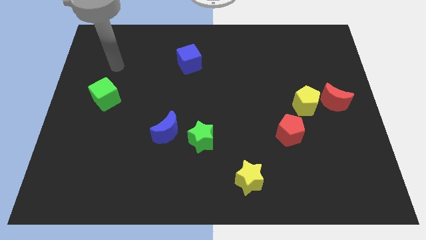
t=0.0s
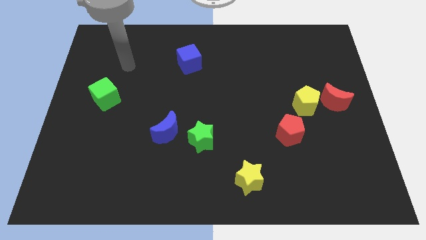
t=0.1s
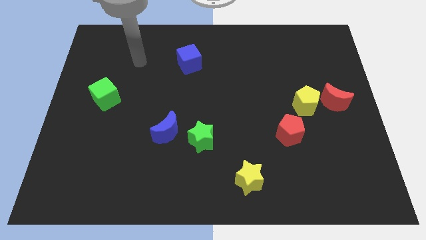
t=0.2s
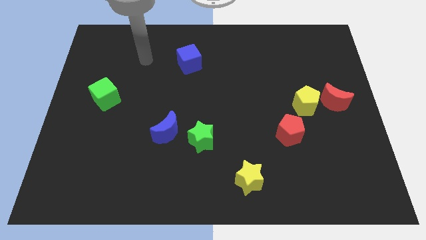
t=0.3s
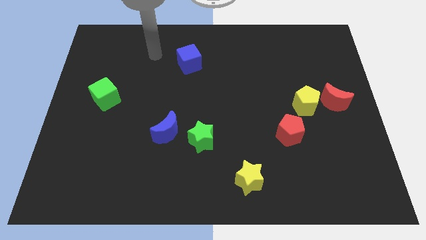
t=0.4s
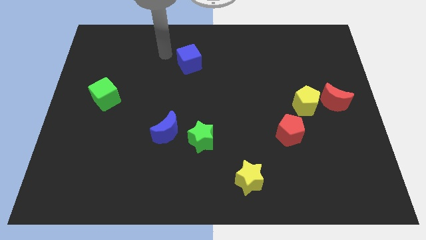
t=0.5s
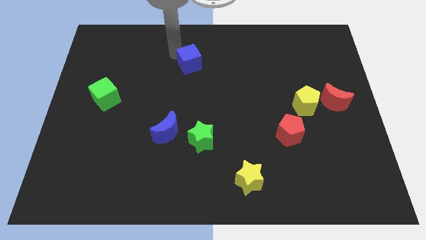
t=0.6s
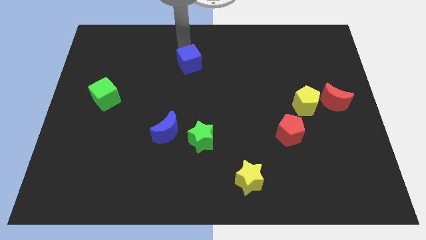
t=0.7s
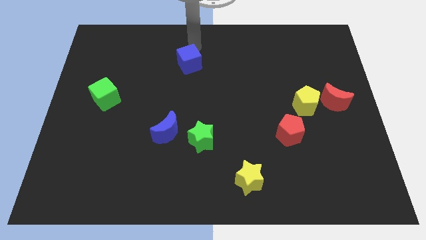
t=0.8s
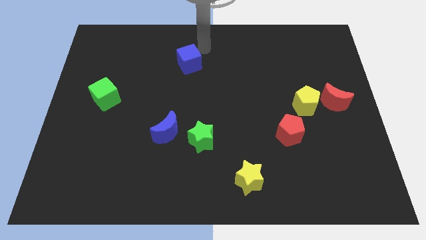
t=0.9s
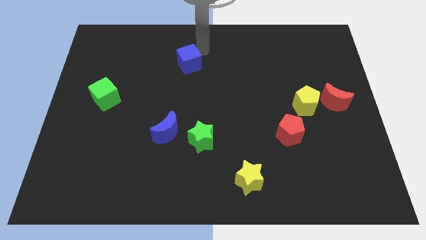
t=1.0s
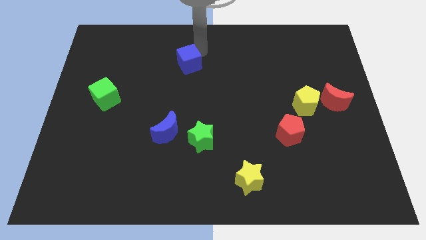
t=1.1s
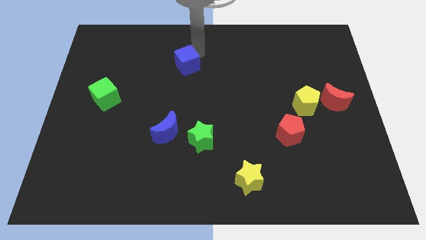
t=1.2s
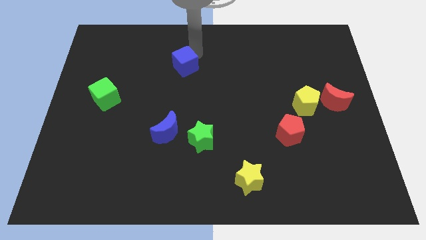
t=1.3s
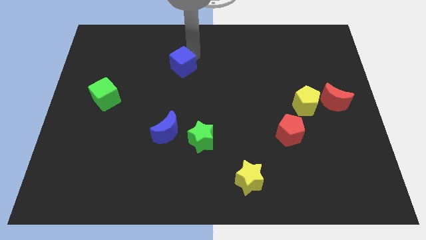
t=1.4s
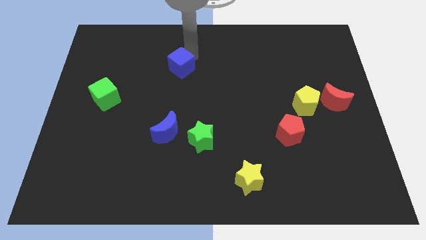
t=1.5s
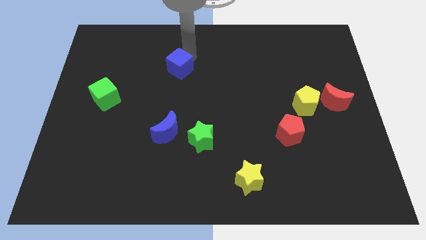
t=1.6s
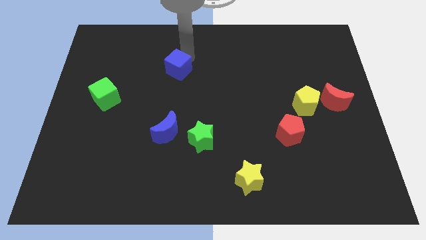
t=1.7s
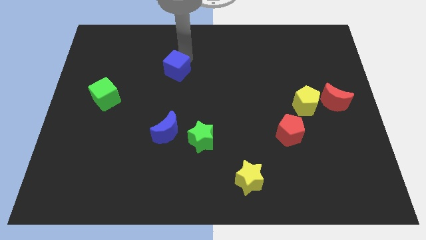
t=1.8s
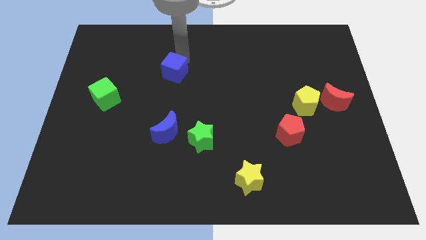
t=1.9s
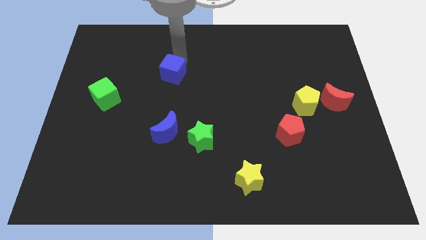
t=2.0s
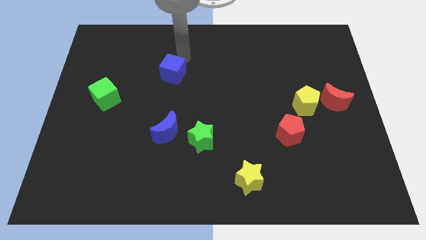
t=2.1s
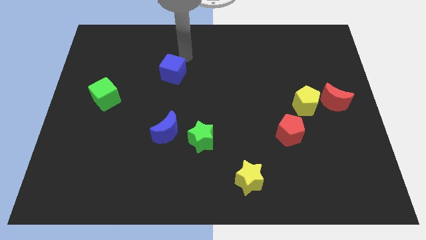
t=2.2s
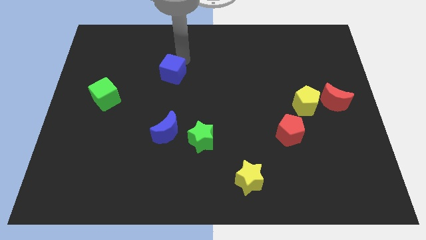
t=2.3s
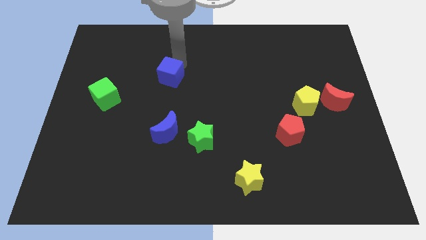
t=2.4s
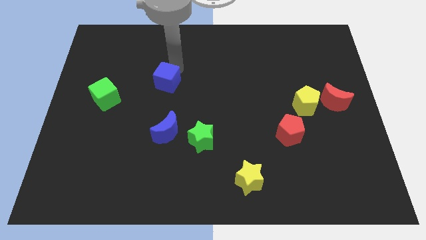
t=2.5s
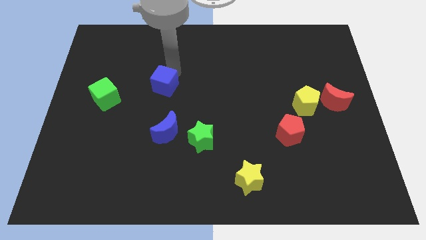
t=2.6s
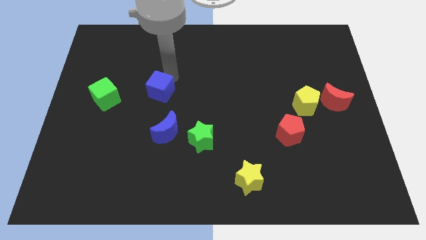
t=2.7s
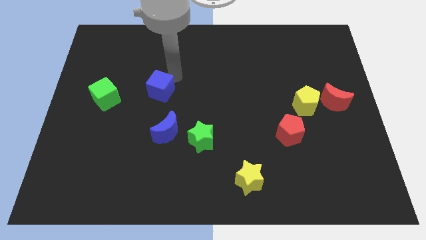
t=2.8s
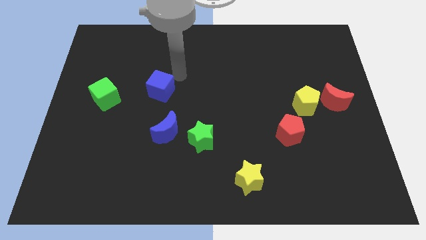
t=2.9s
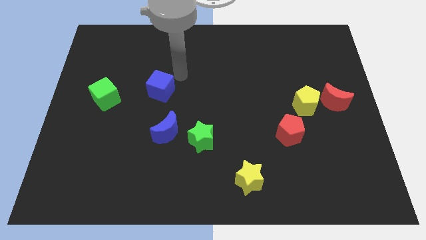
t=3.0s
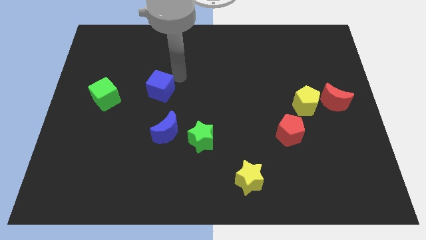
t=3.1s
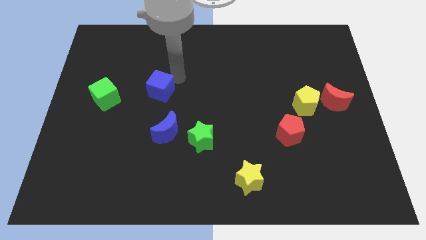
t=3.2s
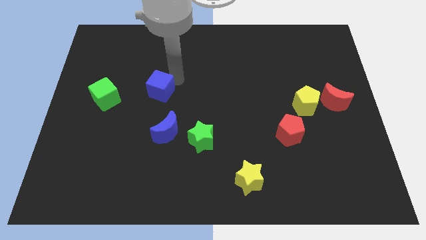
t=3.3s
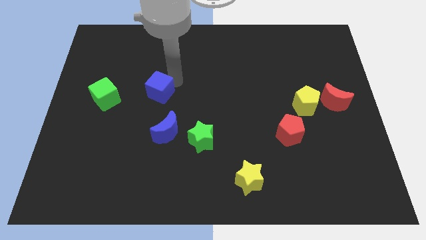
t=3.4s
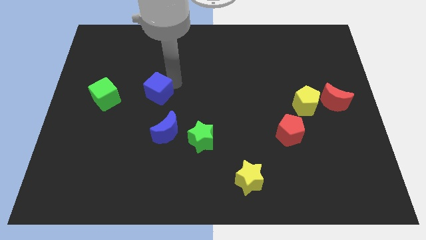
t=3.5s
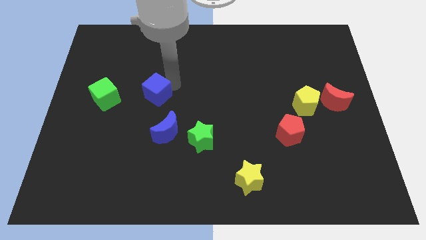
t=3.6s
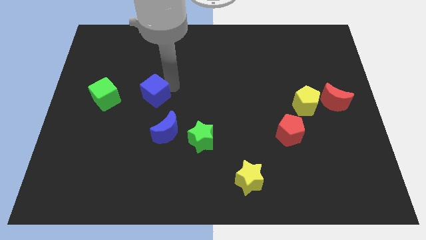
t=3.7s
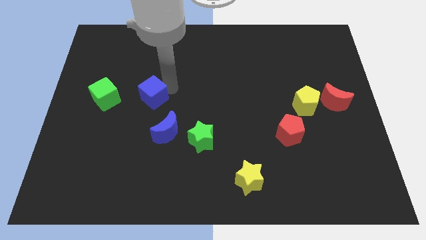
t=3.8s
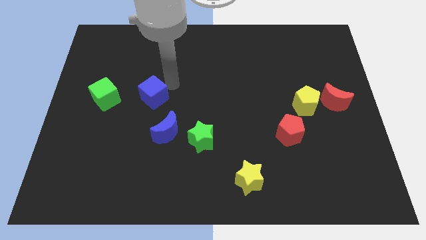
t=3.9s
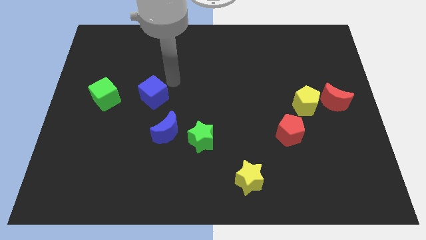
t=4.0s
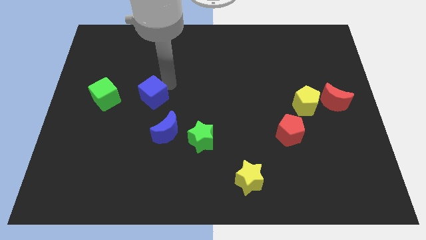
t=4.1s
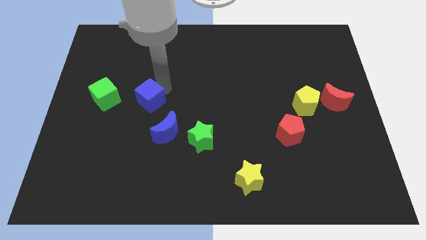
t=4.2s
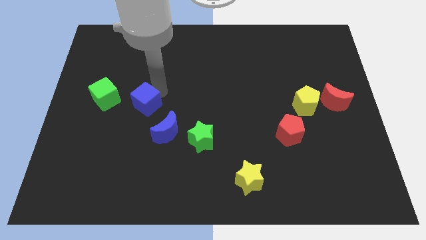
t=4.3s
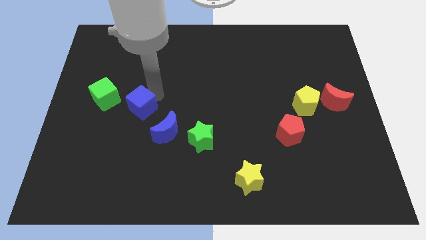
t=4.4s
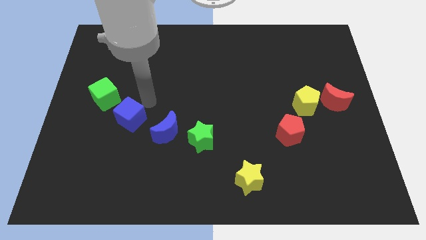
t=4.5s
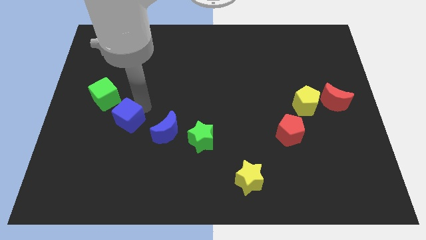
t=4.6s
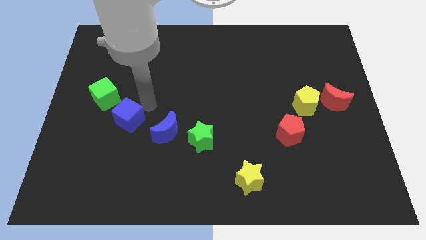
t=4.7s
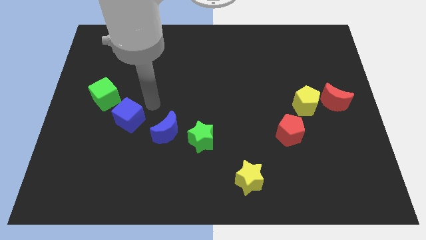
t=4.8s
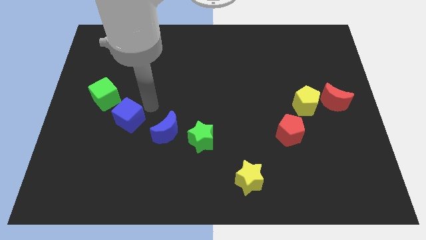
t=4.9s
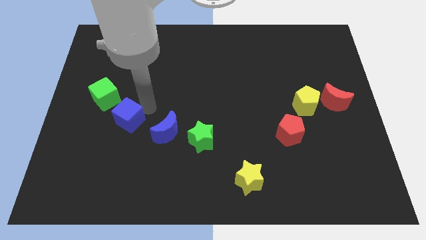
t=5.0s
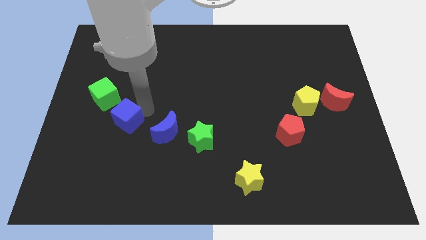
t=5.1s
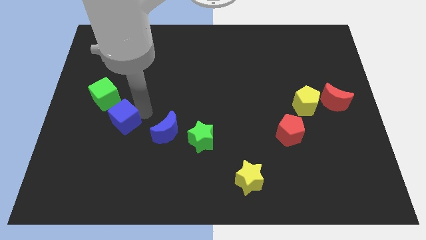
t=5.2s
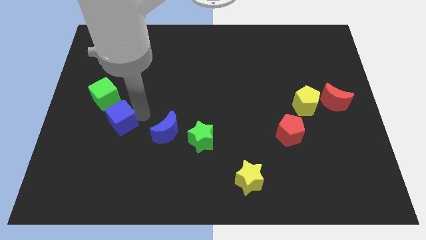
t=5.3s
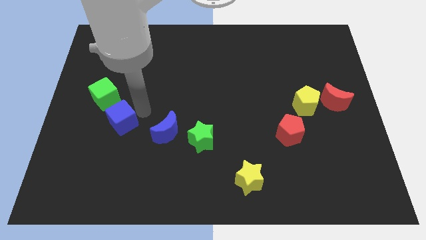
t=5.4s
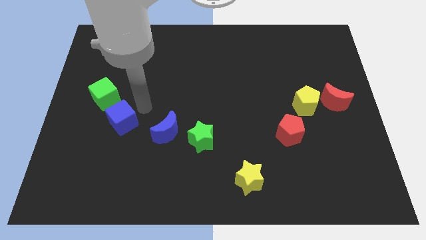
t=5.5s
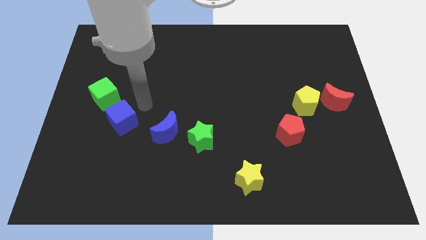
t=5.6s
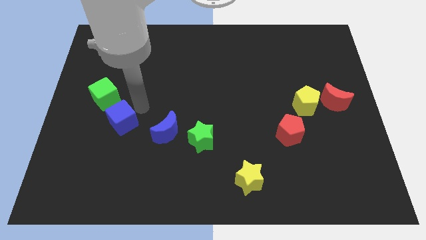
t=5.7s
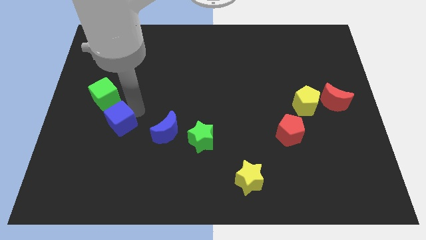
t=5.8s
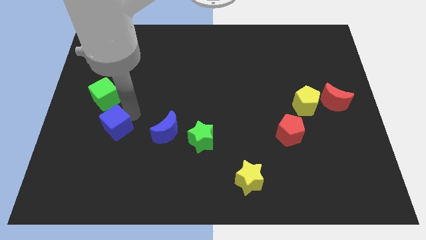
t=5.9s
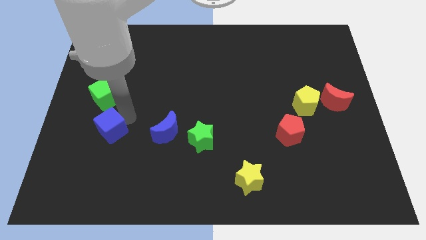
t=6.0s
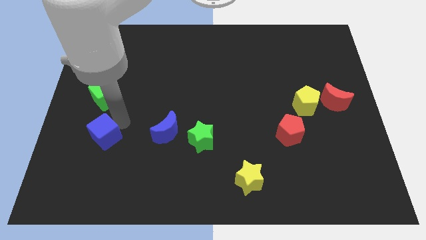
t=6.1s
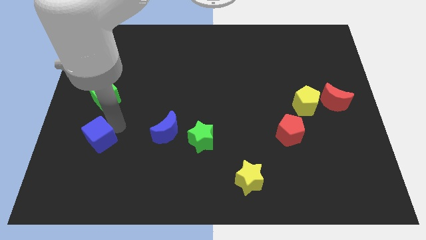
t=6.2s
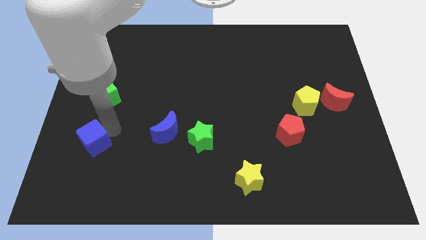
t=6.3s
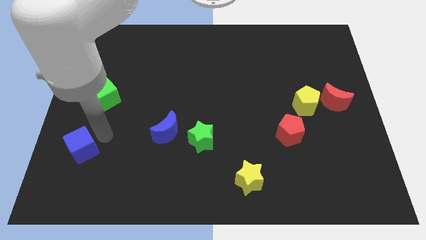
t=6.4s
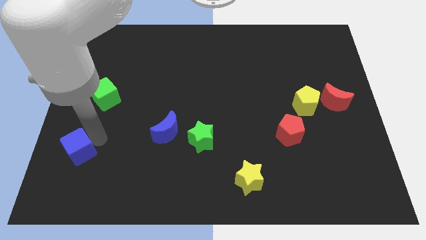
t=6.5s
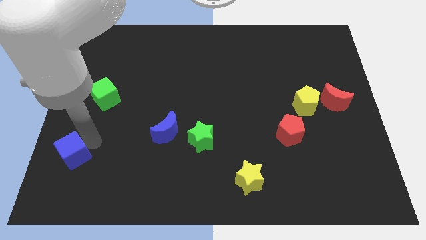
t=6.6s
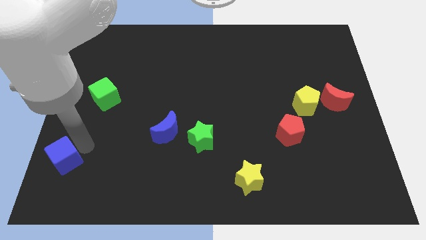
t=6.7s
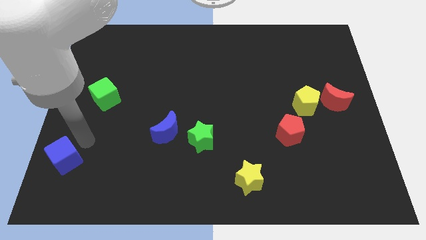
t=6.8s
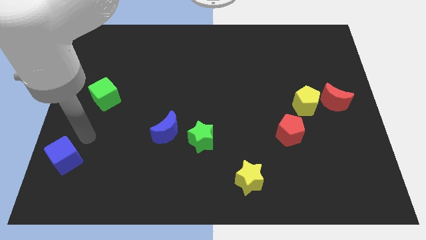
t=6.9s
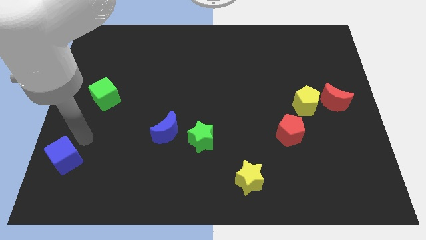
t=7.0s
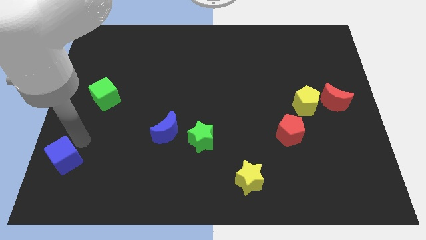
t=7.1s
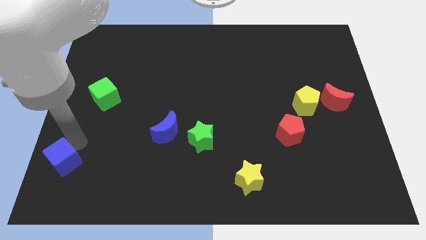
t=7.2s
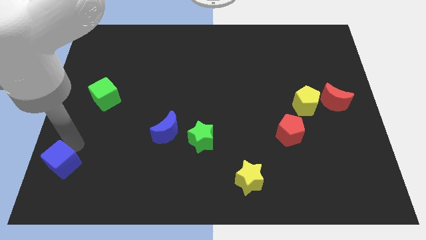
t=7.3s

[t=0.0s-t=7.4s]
slide the blue cube to the bottom left corner
